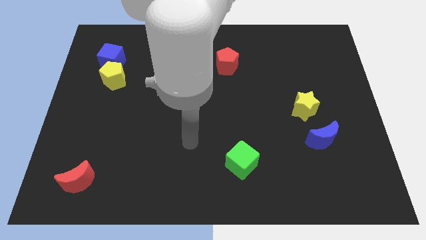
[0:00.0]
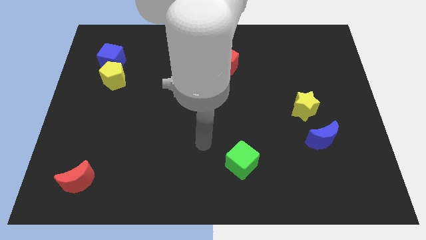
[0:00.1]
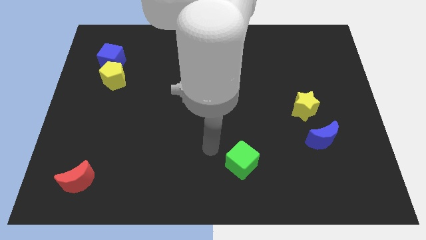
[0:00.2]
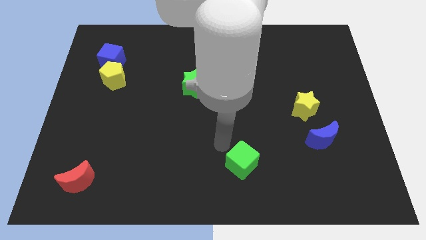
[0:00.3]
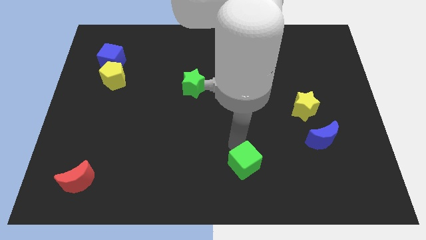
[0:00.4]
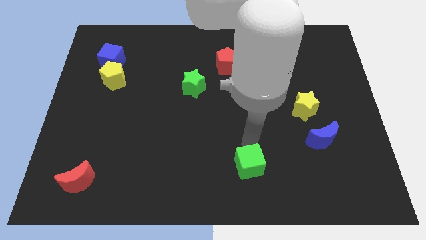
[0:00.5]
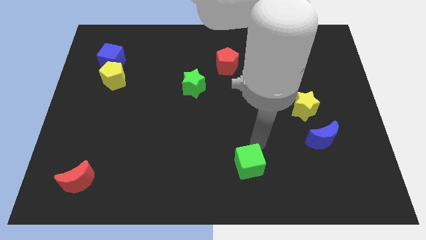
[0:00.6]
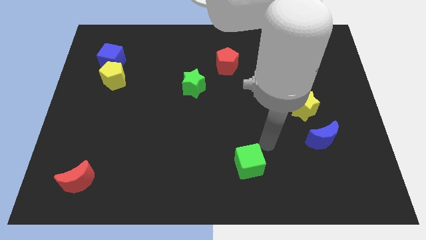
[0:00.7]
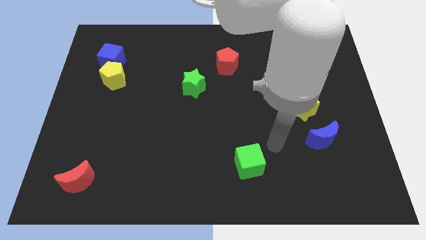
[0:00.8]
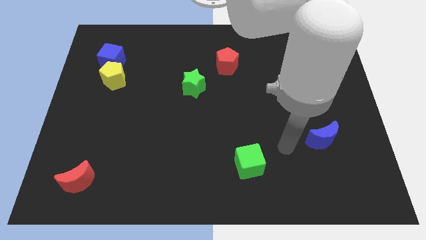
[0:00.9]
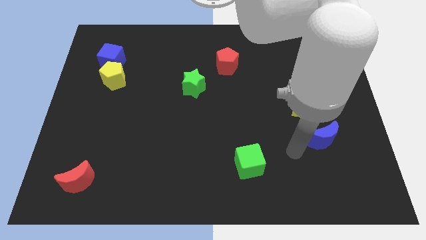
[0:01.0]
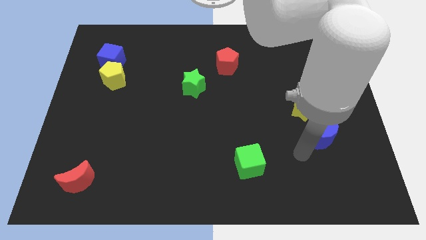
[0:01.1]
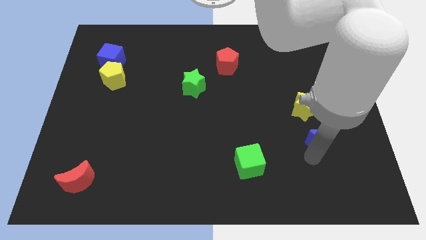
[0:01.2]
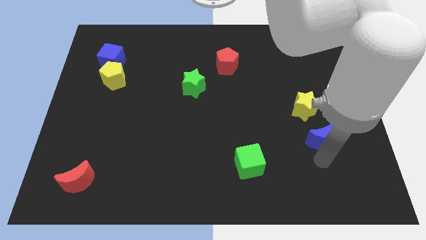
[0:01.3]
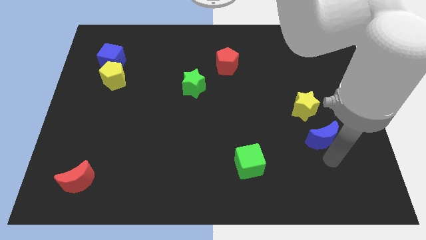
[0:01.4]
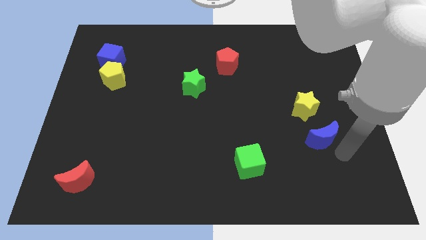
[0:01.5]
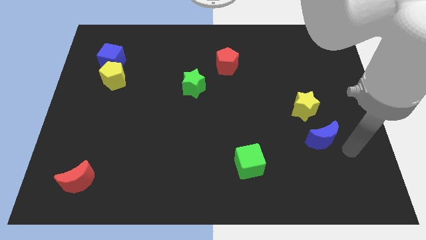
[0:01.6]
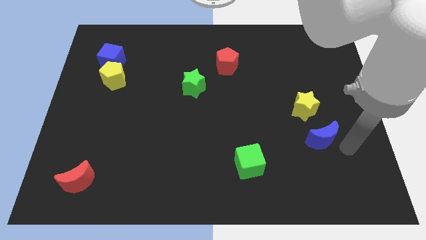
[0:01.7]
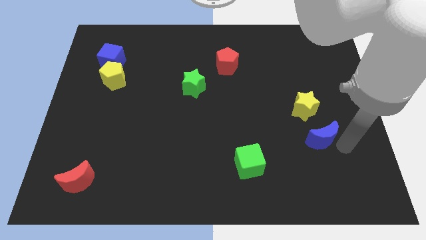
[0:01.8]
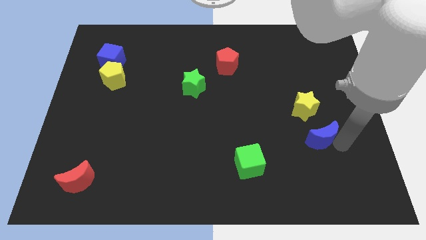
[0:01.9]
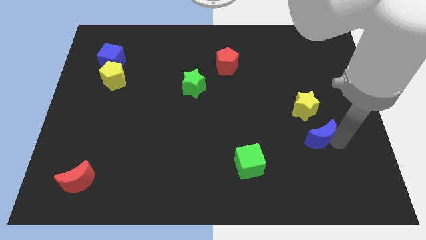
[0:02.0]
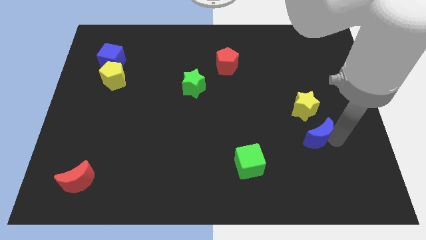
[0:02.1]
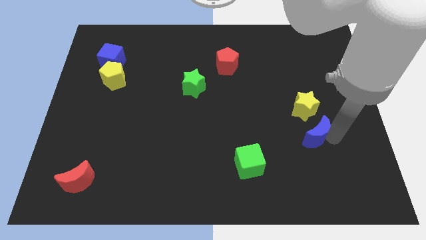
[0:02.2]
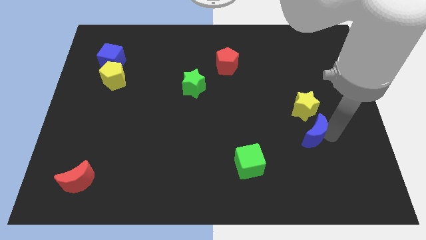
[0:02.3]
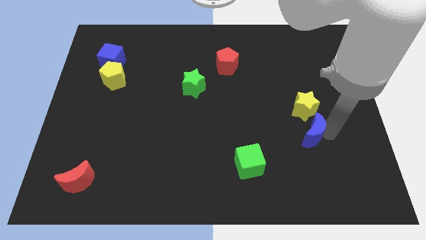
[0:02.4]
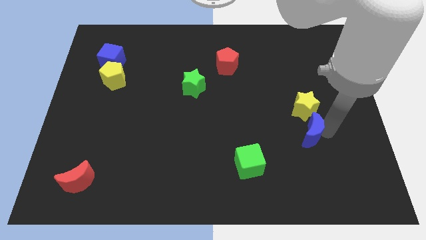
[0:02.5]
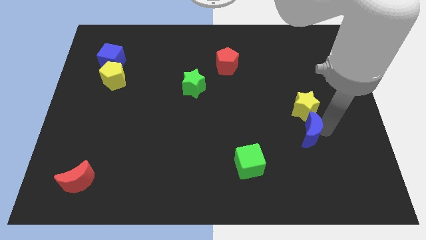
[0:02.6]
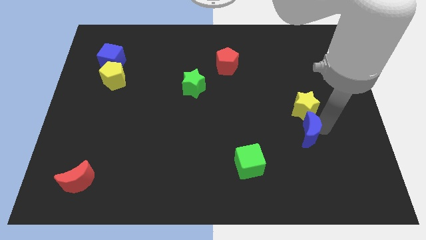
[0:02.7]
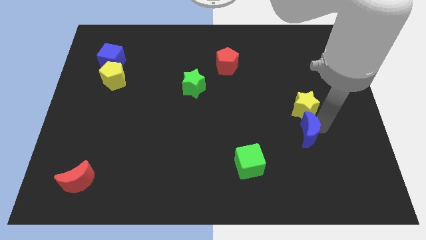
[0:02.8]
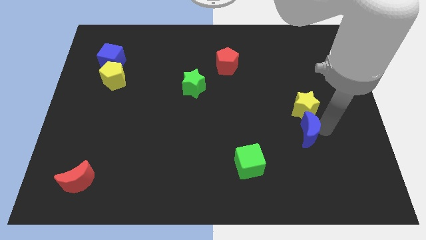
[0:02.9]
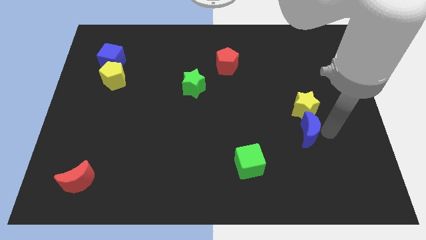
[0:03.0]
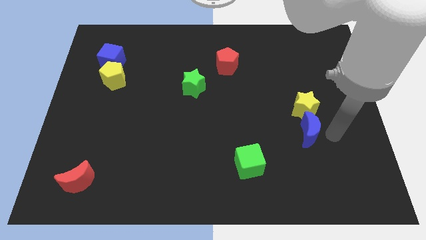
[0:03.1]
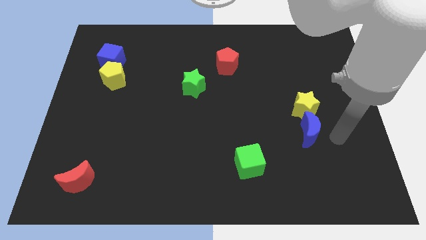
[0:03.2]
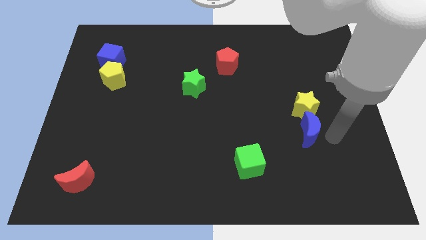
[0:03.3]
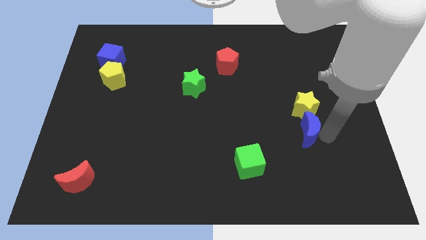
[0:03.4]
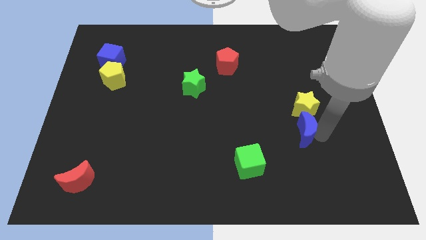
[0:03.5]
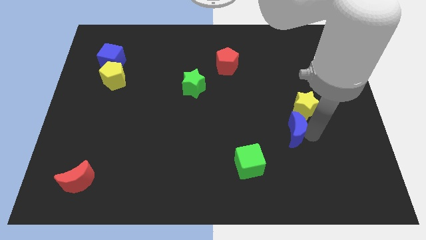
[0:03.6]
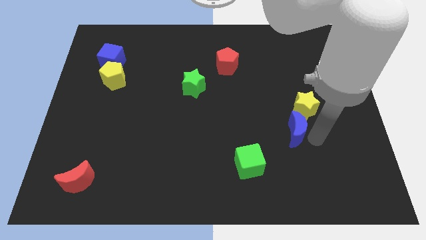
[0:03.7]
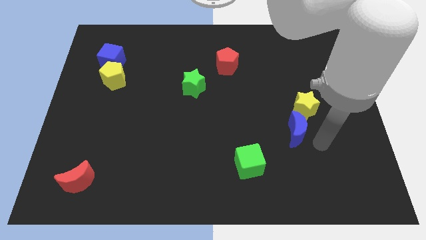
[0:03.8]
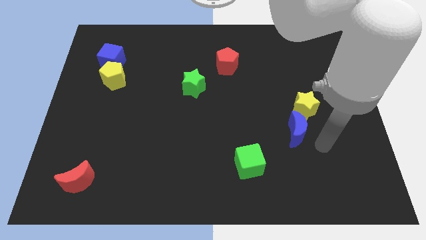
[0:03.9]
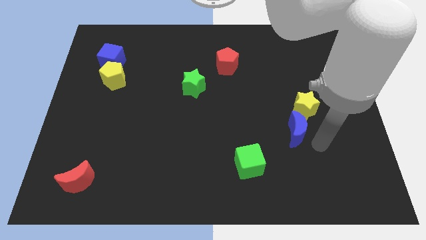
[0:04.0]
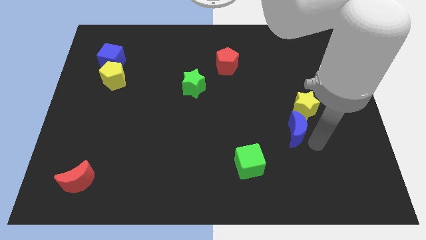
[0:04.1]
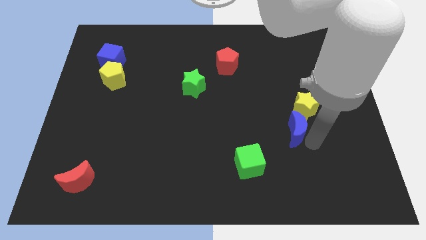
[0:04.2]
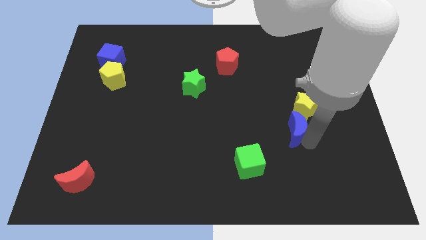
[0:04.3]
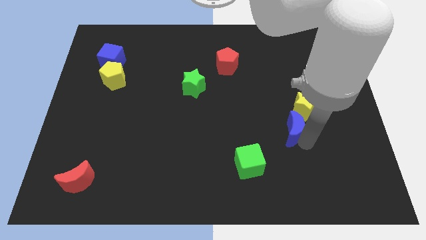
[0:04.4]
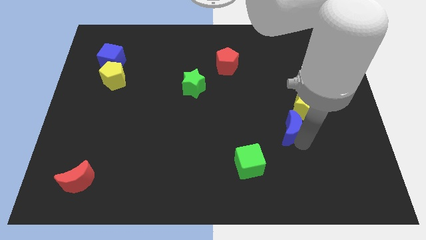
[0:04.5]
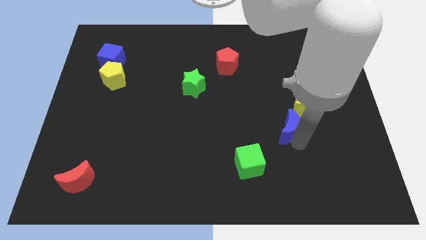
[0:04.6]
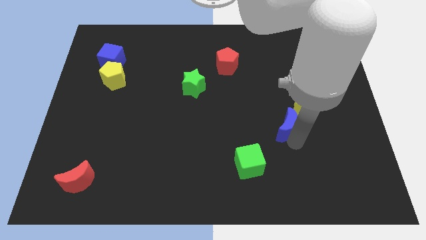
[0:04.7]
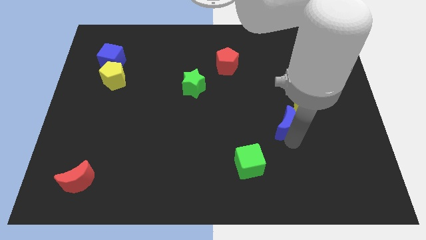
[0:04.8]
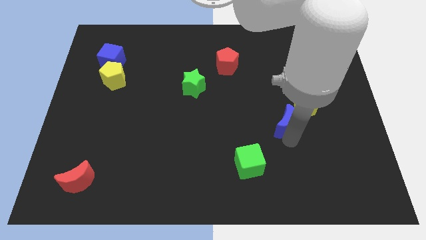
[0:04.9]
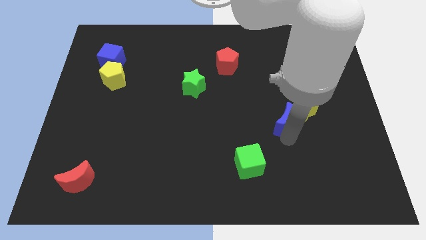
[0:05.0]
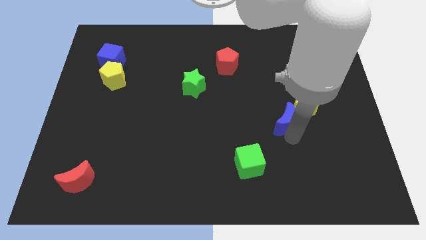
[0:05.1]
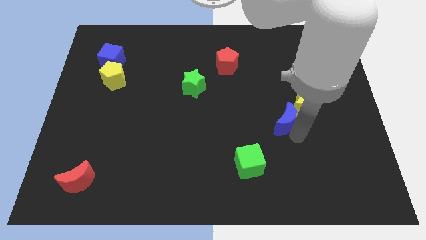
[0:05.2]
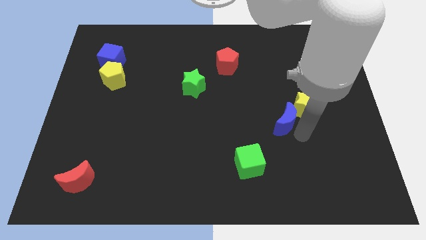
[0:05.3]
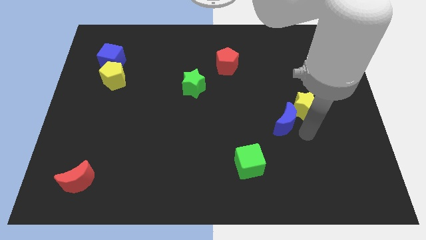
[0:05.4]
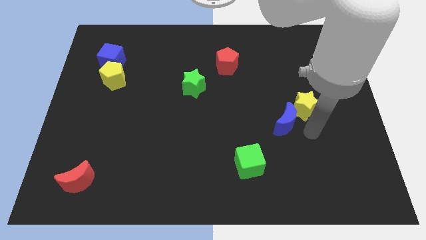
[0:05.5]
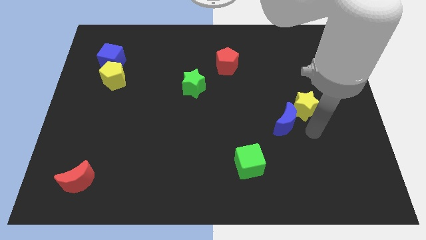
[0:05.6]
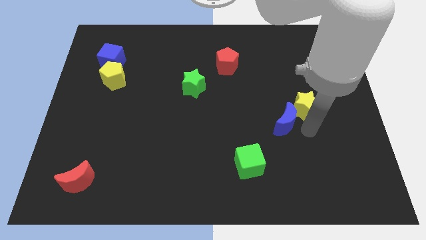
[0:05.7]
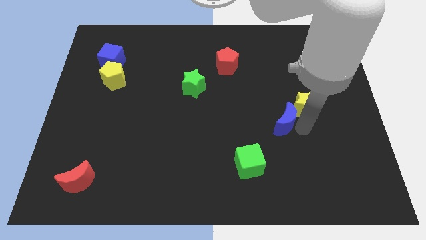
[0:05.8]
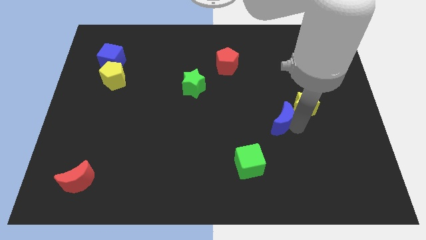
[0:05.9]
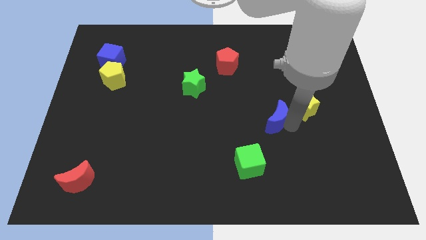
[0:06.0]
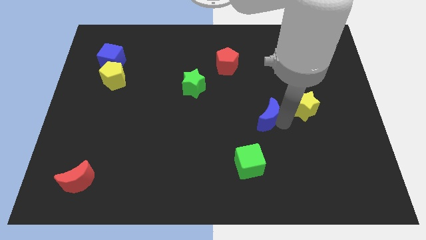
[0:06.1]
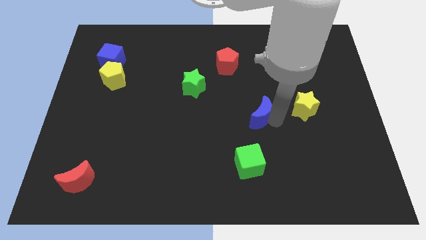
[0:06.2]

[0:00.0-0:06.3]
move the blue moon to the center of the board
